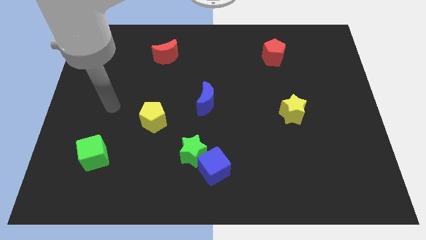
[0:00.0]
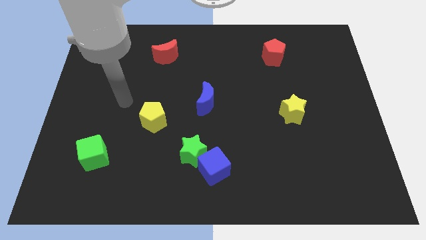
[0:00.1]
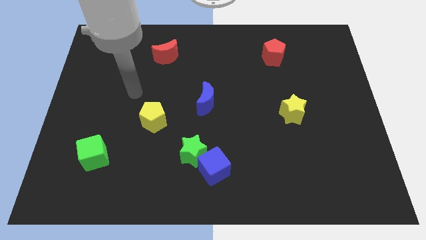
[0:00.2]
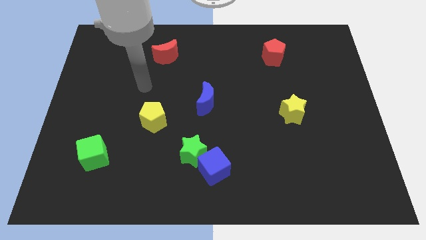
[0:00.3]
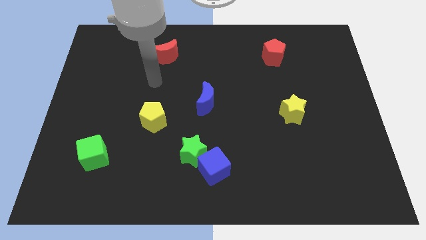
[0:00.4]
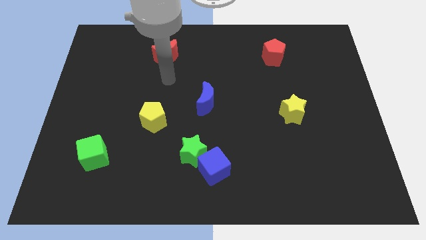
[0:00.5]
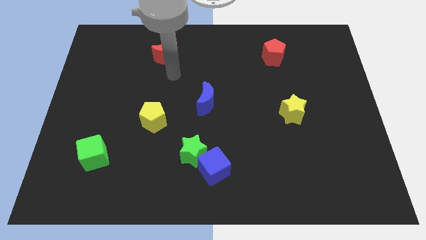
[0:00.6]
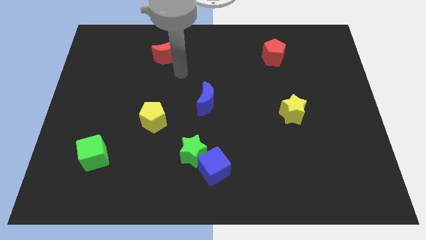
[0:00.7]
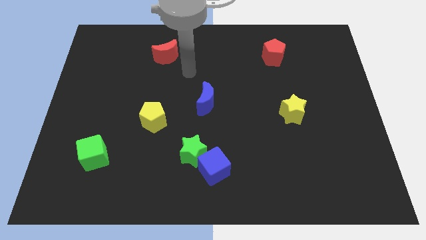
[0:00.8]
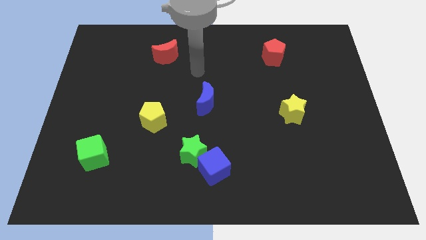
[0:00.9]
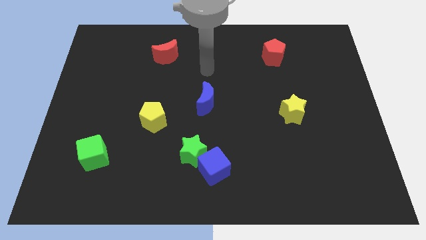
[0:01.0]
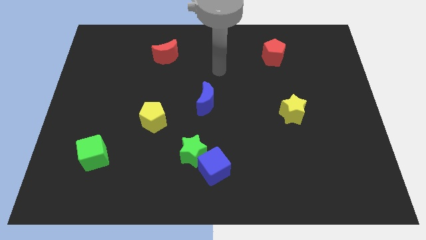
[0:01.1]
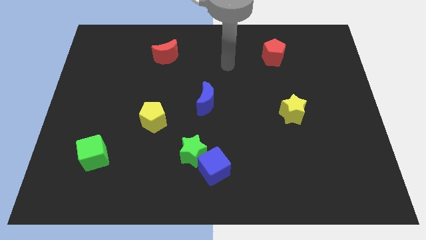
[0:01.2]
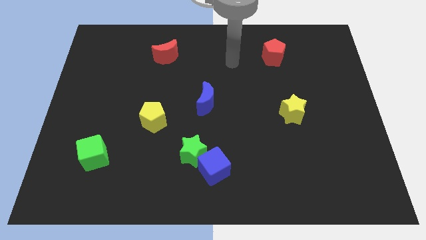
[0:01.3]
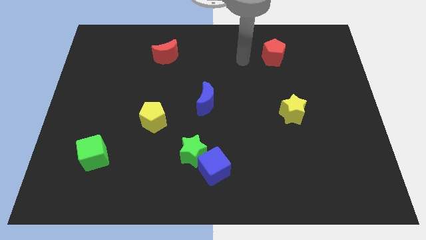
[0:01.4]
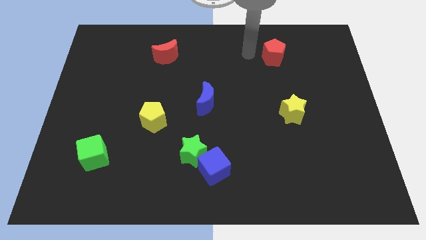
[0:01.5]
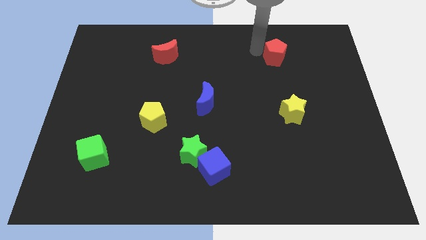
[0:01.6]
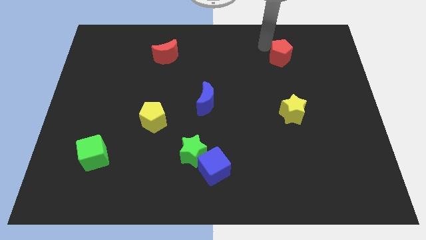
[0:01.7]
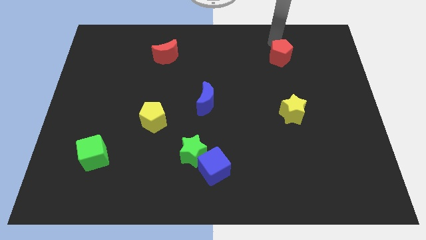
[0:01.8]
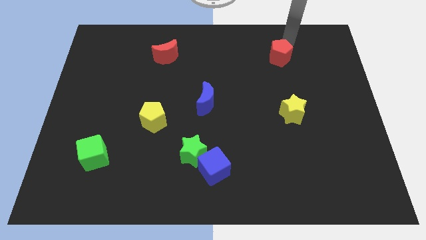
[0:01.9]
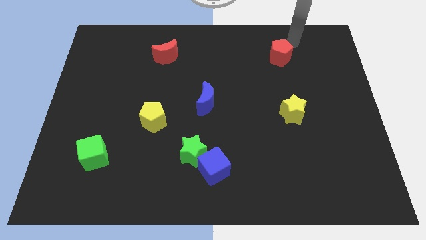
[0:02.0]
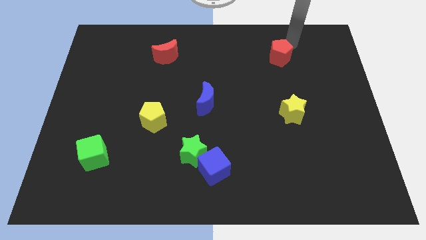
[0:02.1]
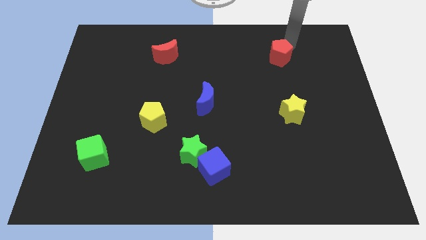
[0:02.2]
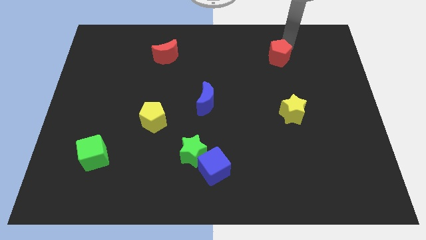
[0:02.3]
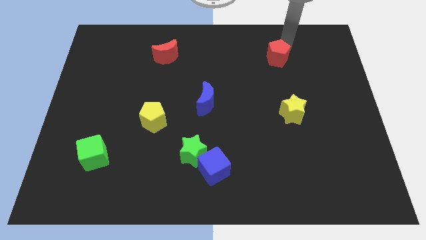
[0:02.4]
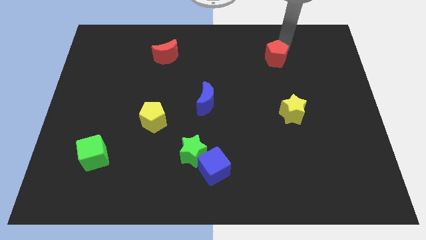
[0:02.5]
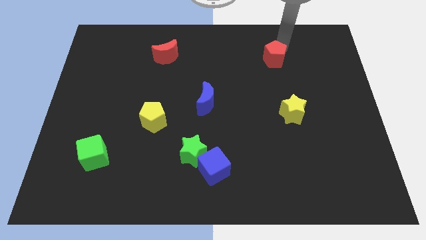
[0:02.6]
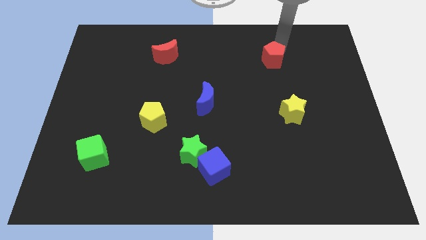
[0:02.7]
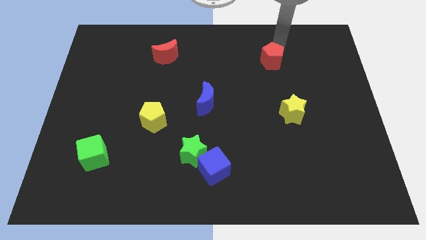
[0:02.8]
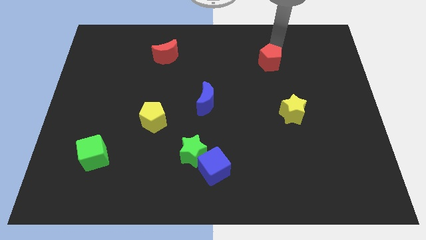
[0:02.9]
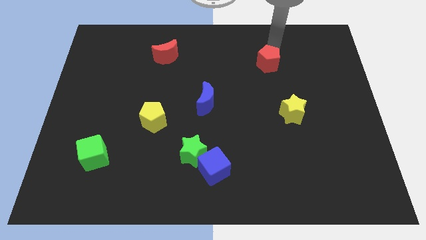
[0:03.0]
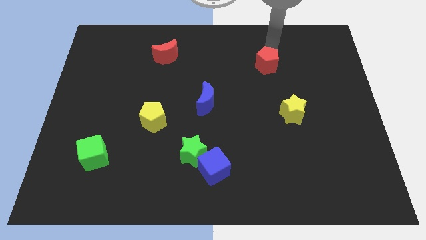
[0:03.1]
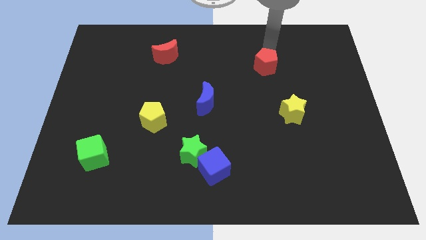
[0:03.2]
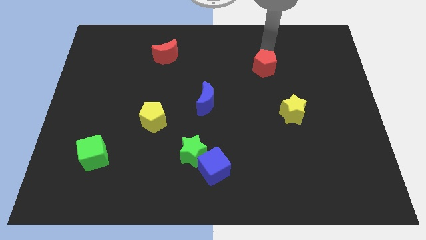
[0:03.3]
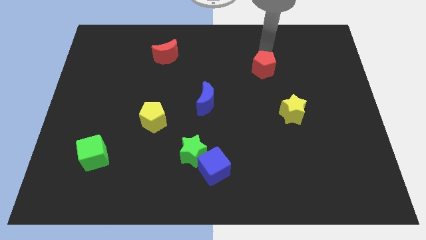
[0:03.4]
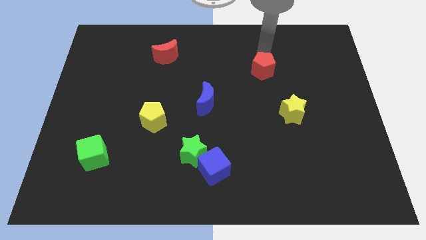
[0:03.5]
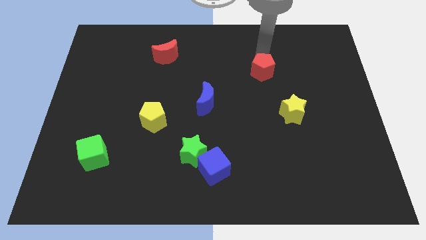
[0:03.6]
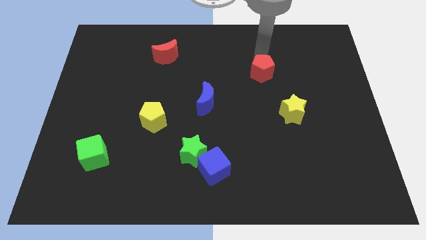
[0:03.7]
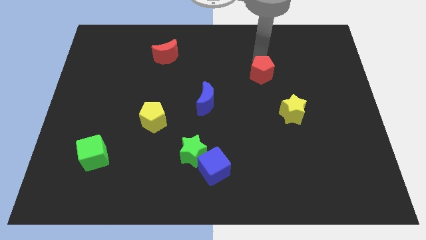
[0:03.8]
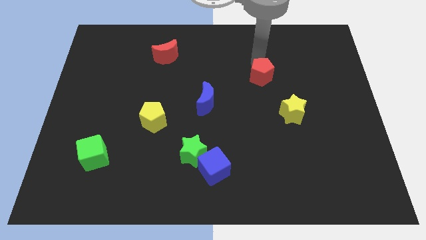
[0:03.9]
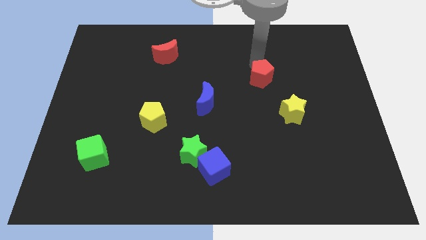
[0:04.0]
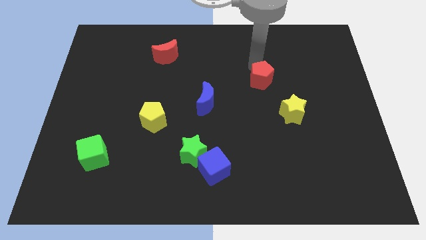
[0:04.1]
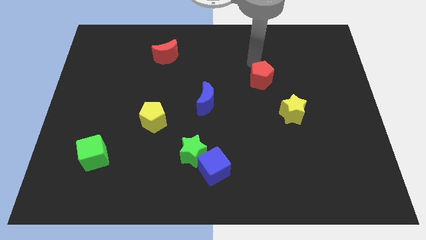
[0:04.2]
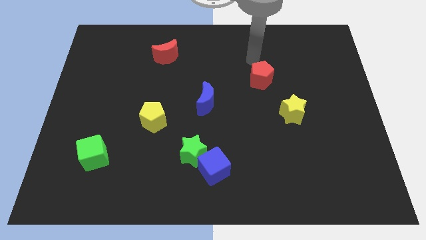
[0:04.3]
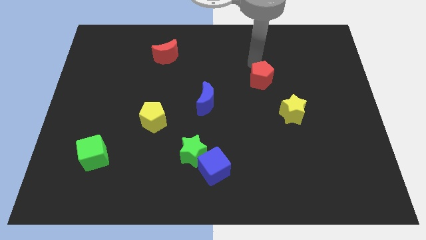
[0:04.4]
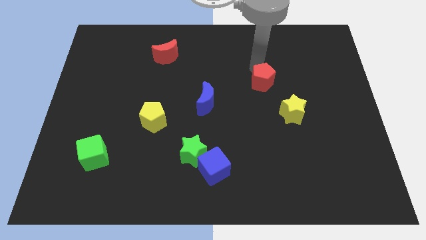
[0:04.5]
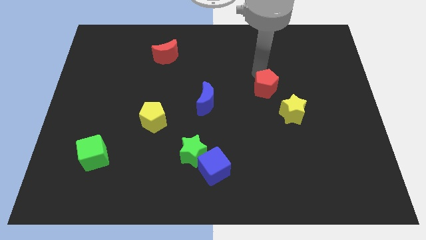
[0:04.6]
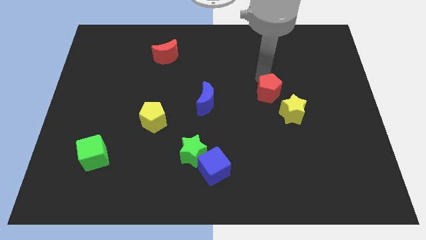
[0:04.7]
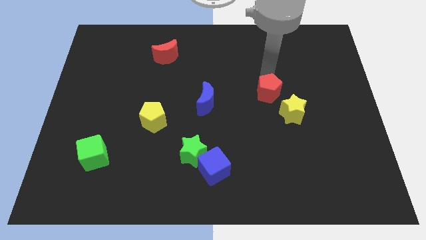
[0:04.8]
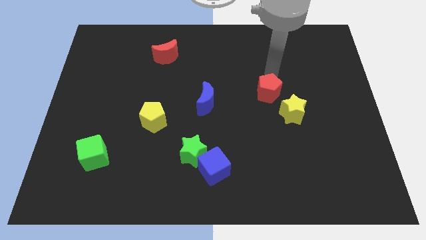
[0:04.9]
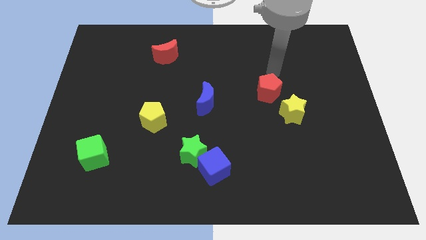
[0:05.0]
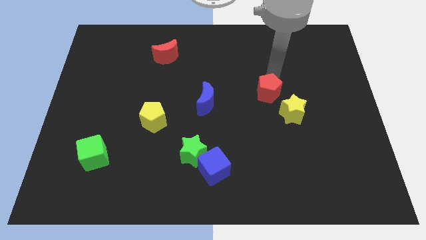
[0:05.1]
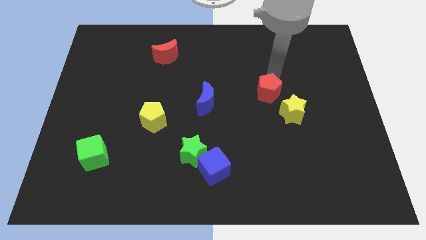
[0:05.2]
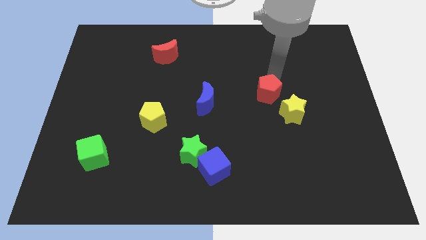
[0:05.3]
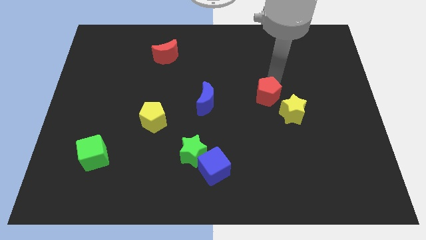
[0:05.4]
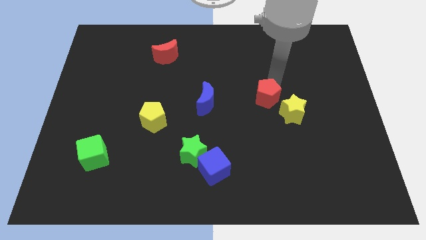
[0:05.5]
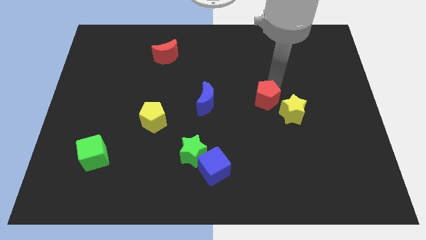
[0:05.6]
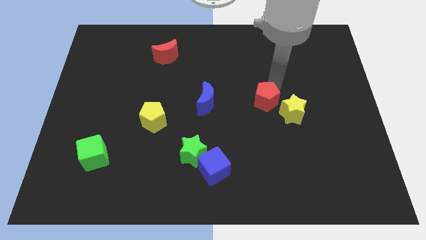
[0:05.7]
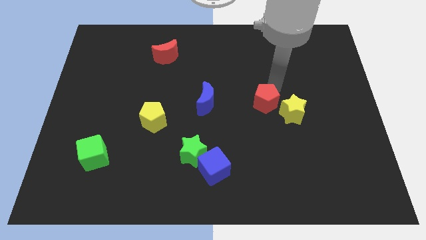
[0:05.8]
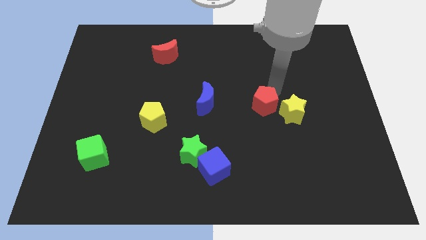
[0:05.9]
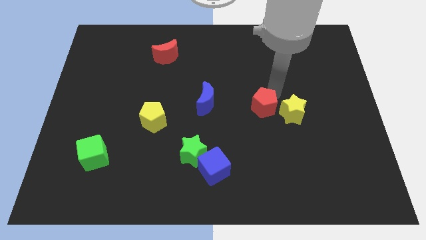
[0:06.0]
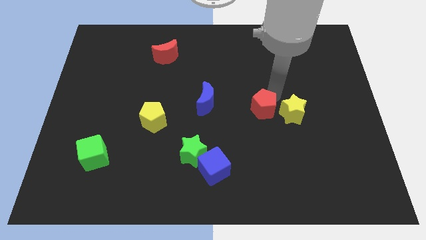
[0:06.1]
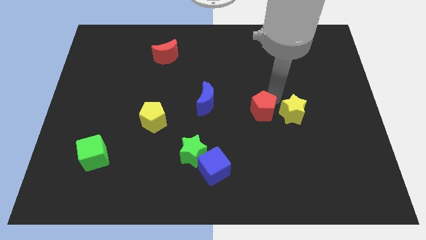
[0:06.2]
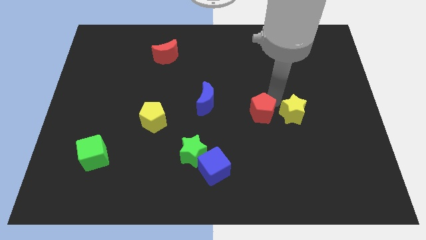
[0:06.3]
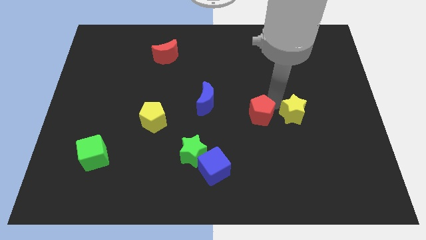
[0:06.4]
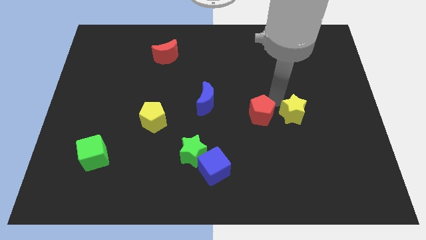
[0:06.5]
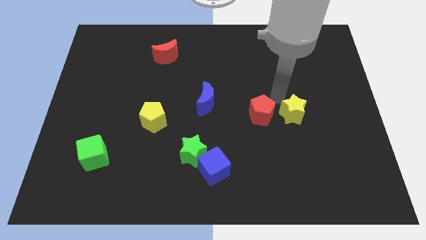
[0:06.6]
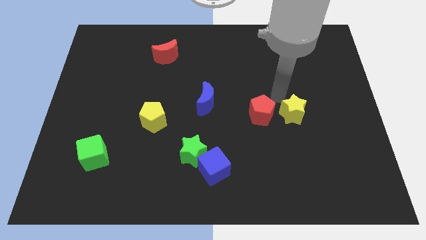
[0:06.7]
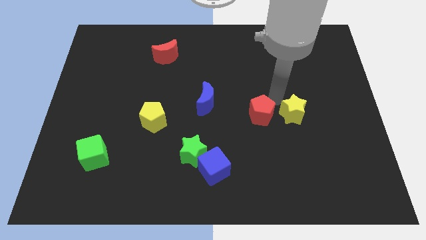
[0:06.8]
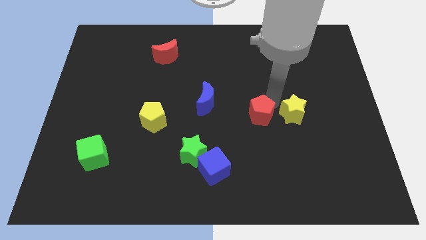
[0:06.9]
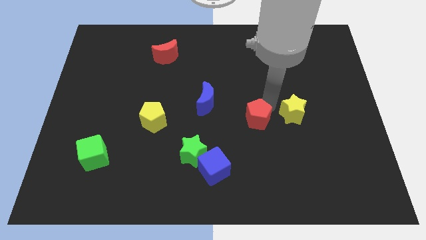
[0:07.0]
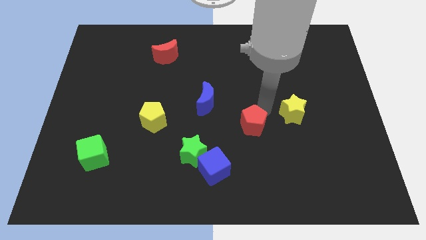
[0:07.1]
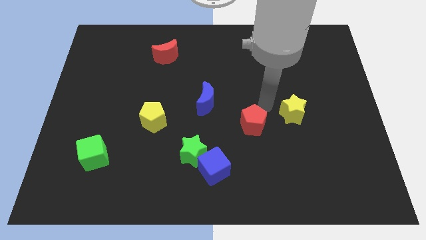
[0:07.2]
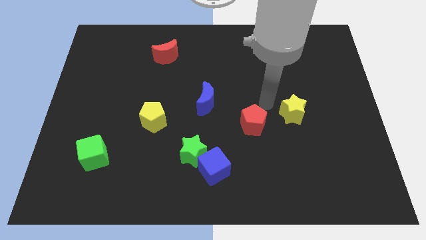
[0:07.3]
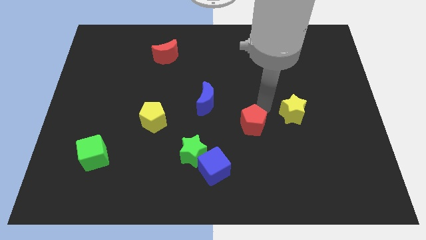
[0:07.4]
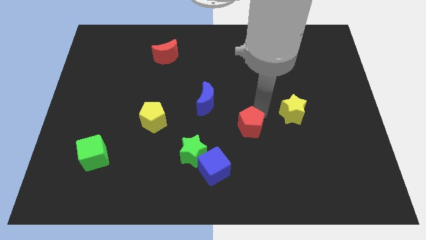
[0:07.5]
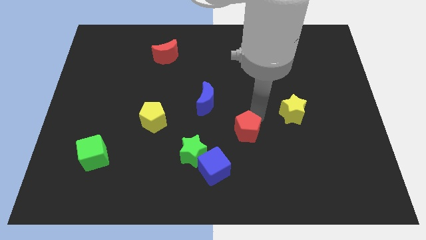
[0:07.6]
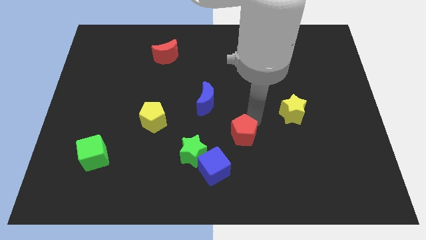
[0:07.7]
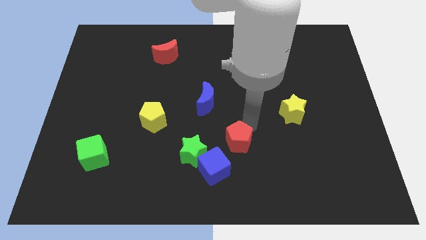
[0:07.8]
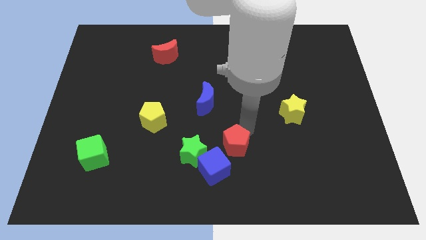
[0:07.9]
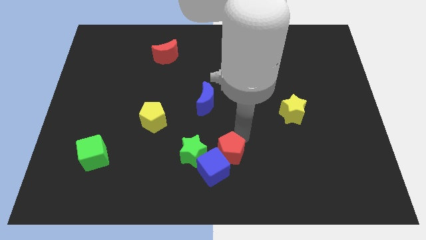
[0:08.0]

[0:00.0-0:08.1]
push the red pentagon to the blue cube
